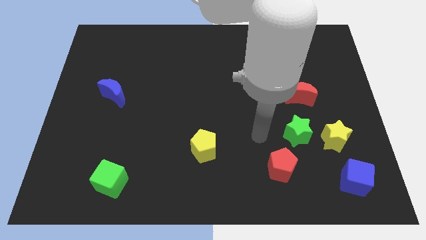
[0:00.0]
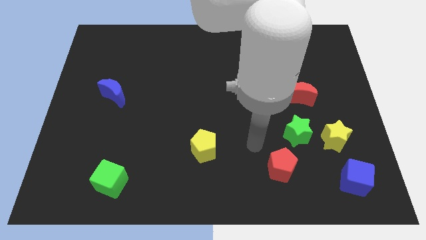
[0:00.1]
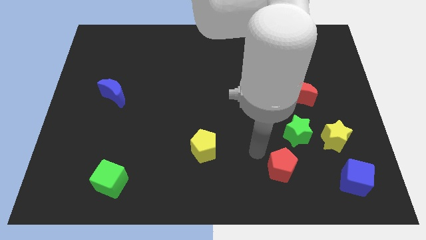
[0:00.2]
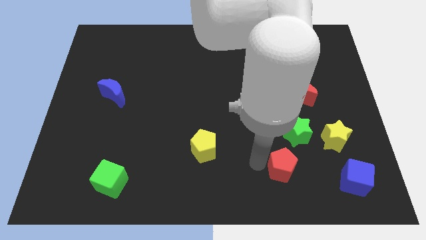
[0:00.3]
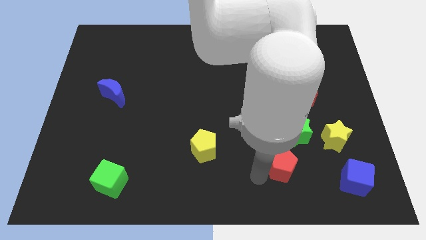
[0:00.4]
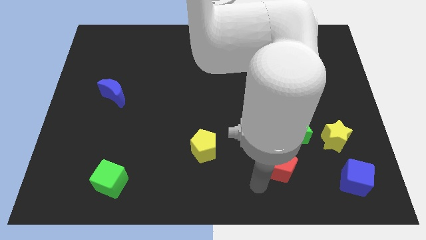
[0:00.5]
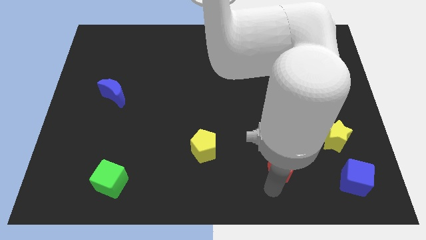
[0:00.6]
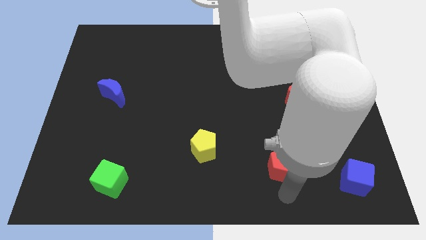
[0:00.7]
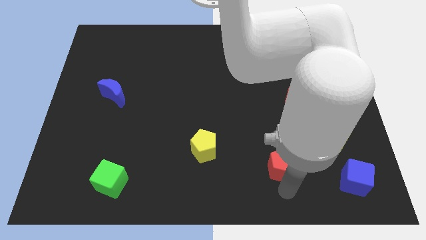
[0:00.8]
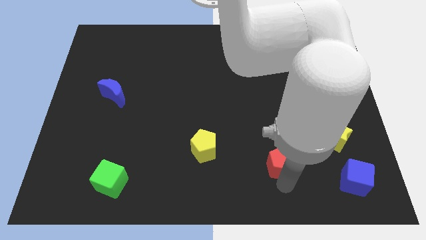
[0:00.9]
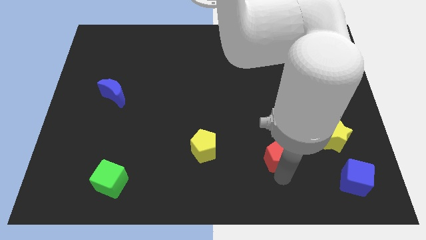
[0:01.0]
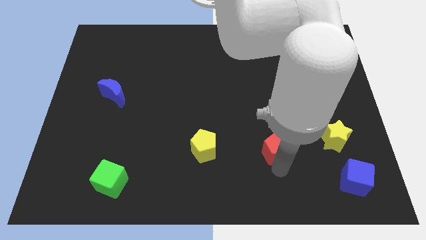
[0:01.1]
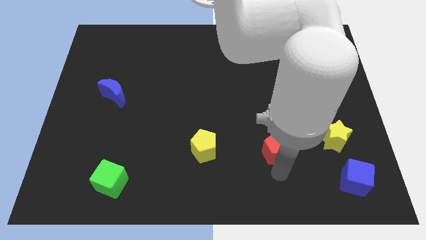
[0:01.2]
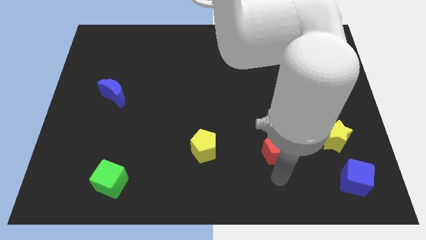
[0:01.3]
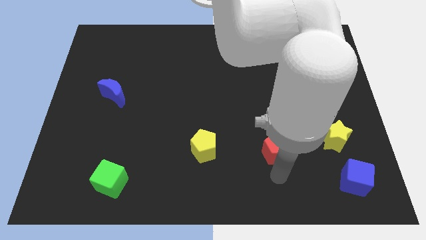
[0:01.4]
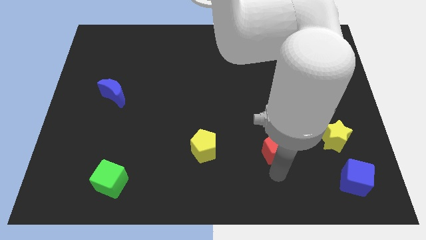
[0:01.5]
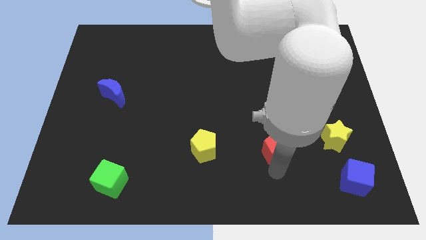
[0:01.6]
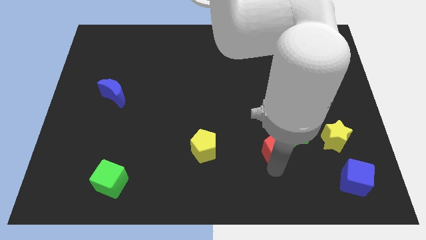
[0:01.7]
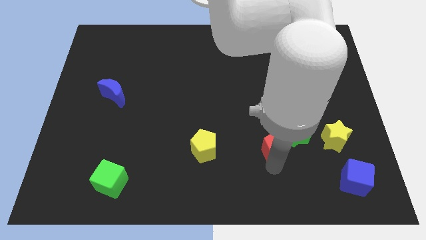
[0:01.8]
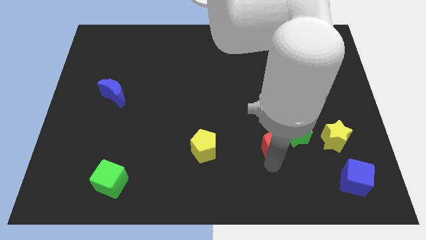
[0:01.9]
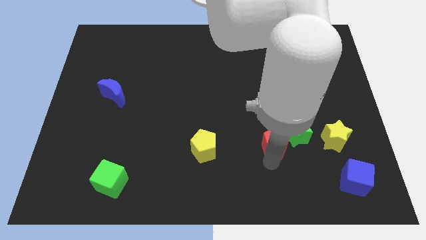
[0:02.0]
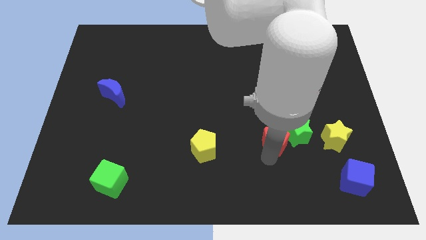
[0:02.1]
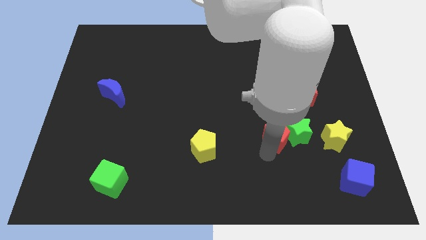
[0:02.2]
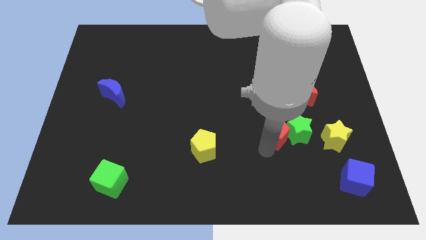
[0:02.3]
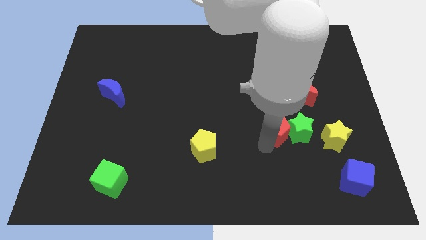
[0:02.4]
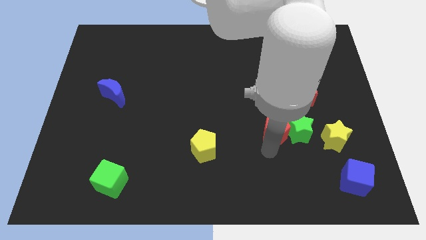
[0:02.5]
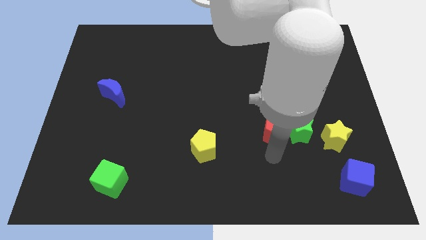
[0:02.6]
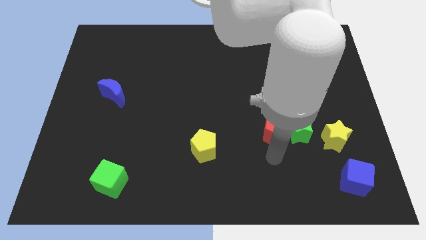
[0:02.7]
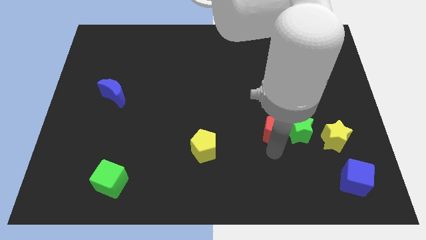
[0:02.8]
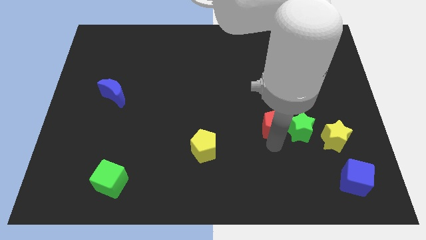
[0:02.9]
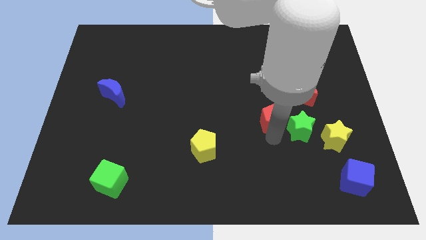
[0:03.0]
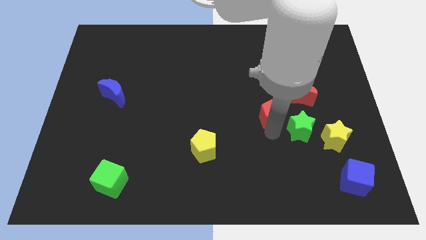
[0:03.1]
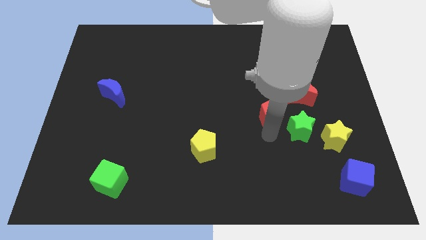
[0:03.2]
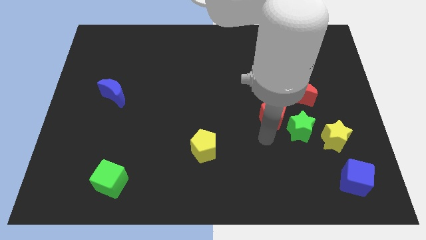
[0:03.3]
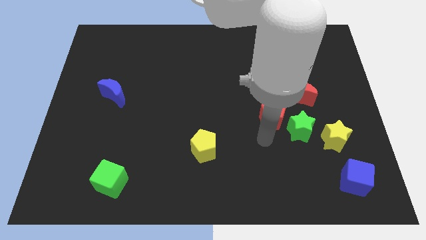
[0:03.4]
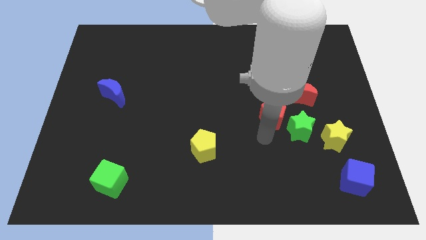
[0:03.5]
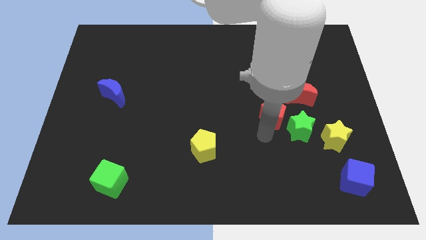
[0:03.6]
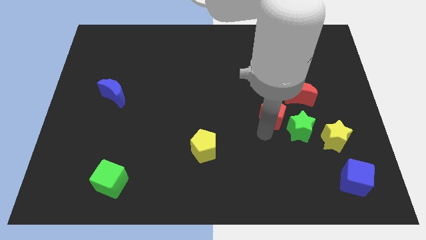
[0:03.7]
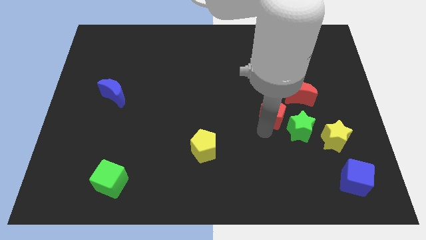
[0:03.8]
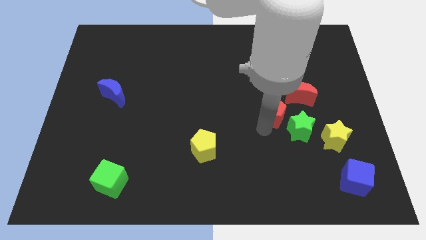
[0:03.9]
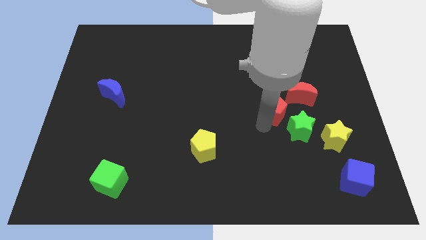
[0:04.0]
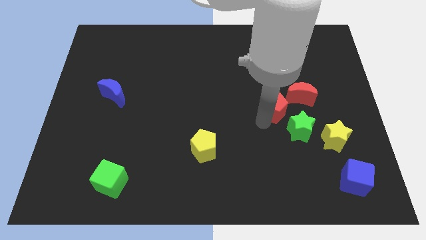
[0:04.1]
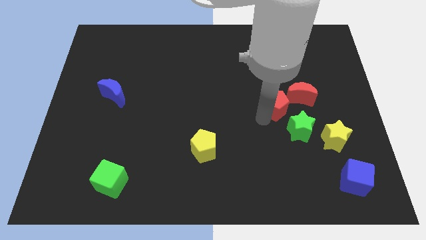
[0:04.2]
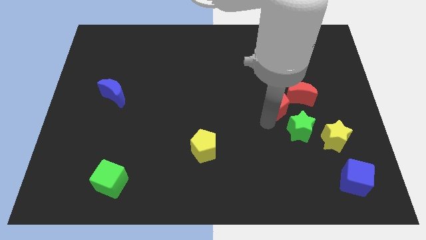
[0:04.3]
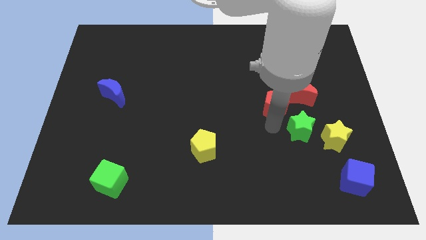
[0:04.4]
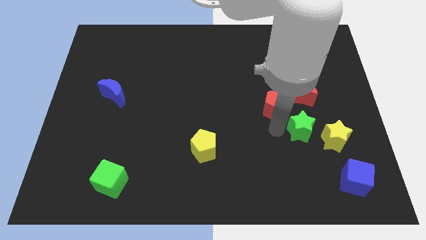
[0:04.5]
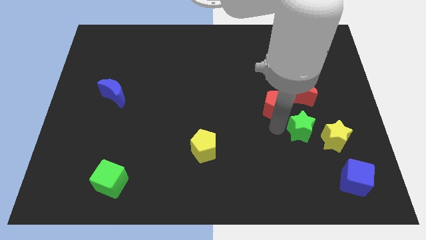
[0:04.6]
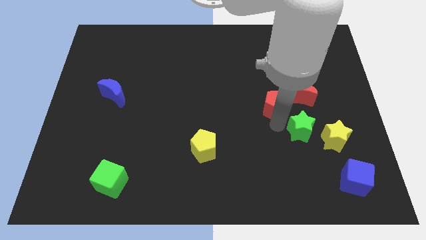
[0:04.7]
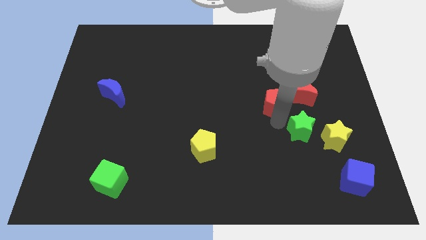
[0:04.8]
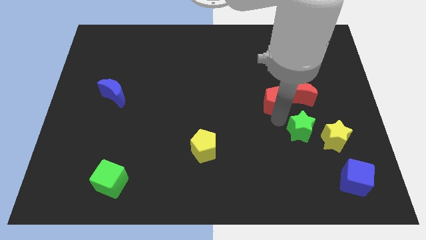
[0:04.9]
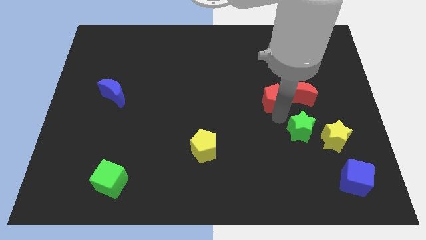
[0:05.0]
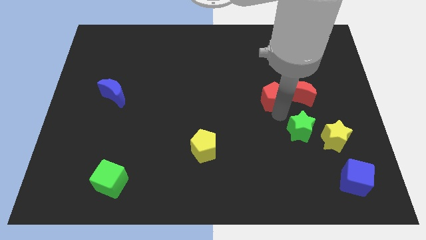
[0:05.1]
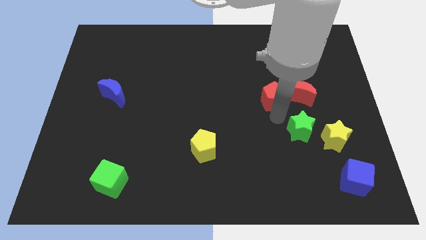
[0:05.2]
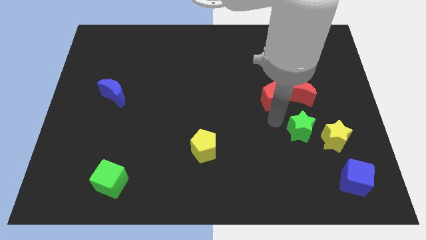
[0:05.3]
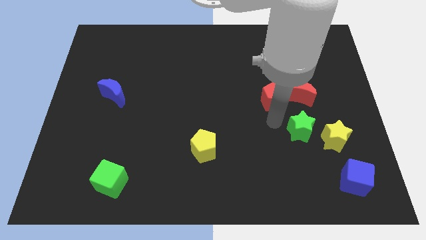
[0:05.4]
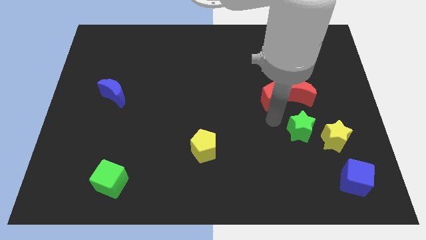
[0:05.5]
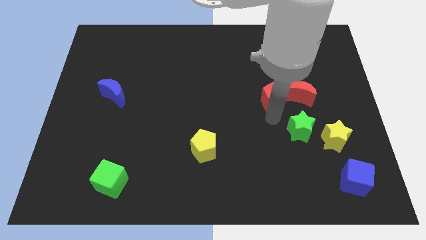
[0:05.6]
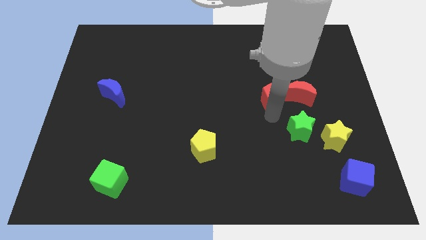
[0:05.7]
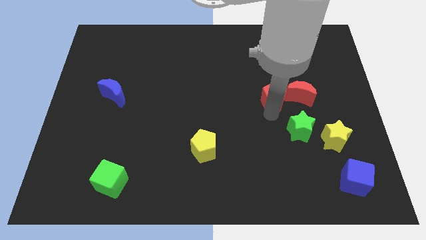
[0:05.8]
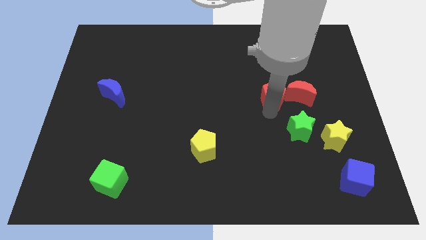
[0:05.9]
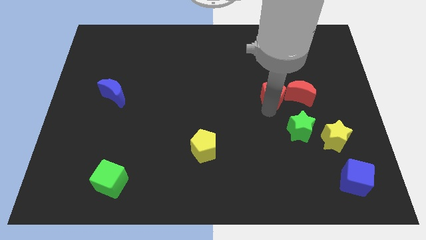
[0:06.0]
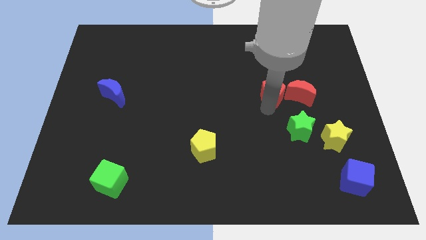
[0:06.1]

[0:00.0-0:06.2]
push the red pentagon up

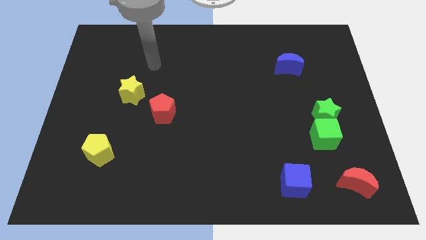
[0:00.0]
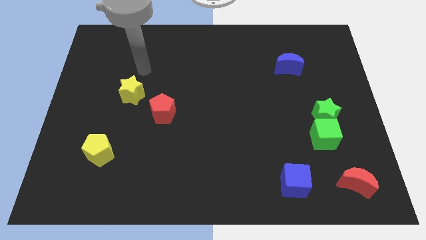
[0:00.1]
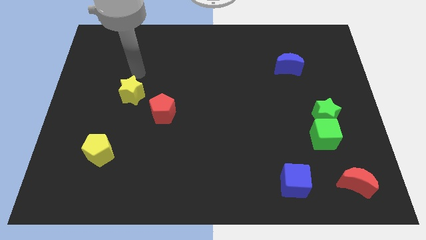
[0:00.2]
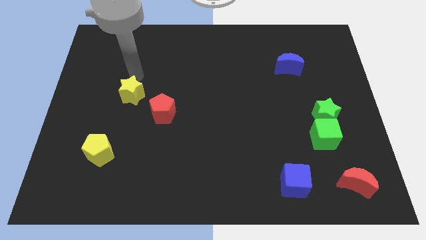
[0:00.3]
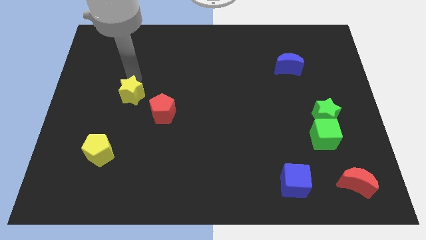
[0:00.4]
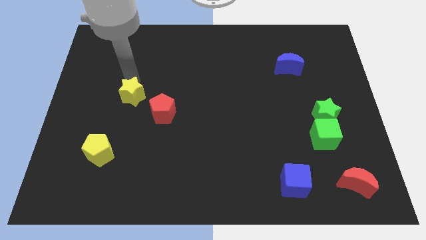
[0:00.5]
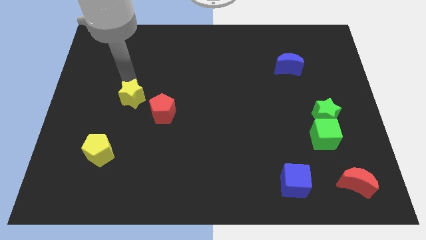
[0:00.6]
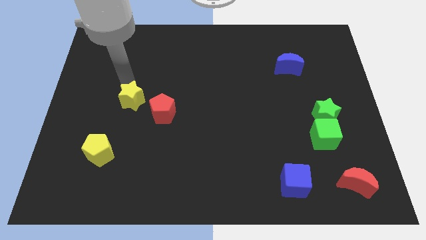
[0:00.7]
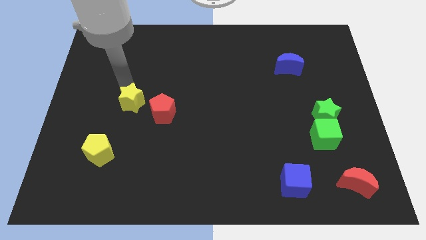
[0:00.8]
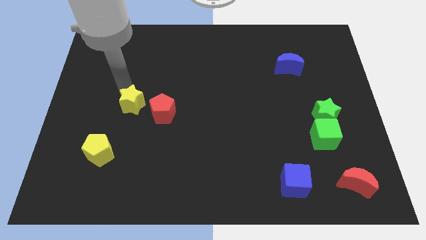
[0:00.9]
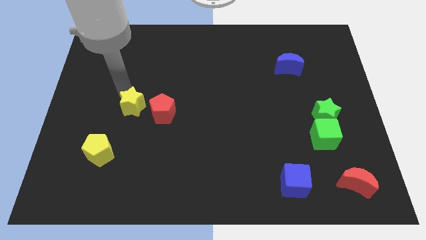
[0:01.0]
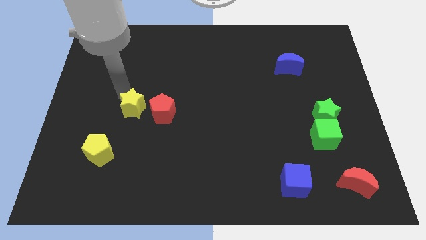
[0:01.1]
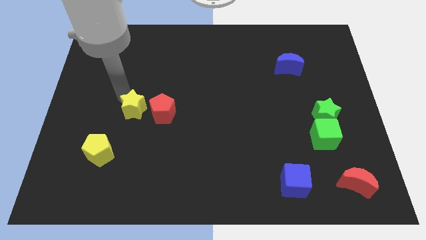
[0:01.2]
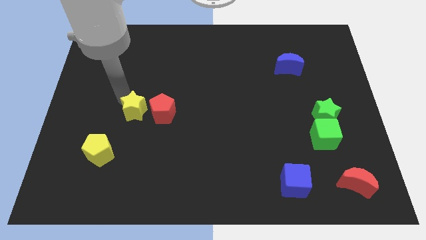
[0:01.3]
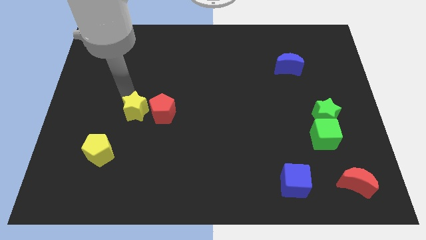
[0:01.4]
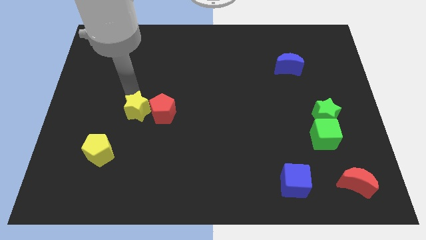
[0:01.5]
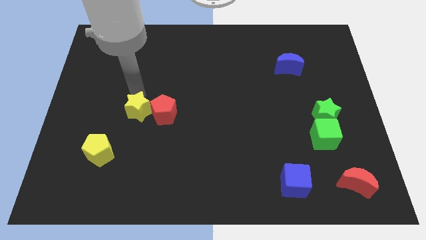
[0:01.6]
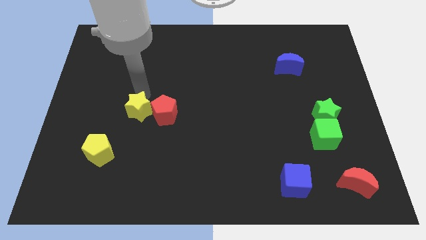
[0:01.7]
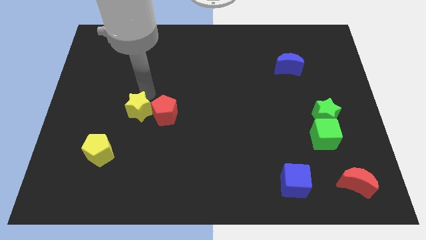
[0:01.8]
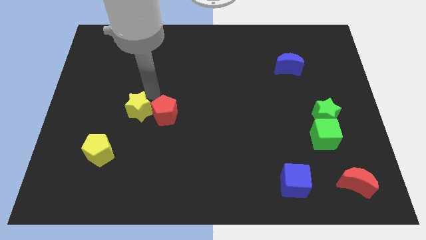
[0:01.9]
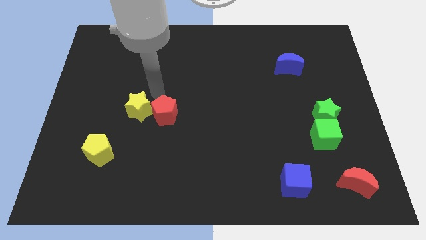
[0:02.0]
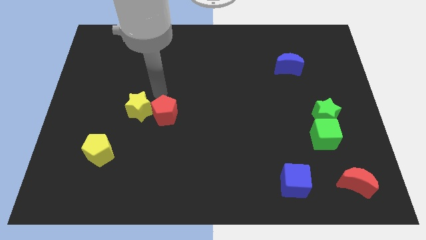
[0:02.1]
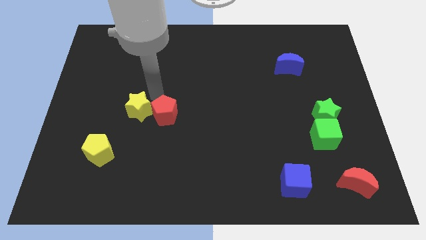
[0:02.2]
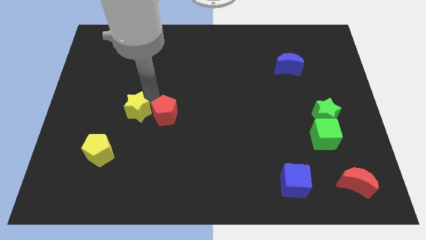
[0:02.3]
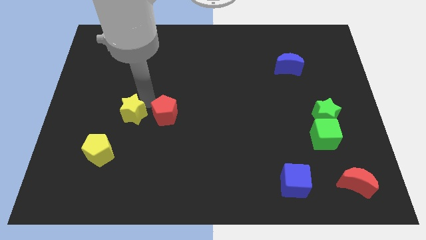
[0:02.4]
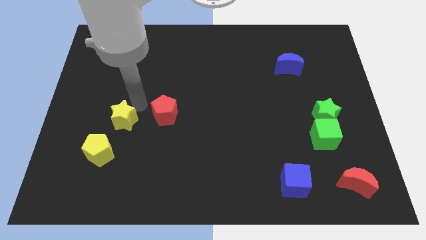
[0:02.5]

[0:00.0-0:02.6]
push the yellow star slightly down
